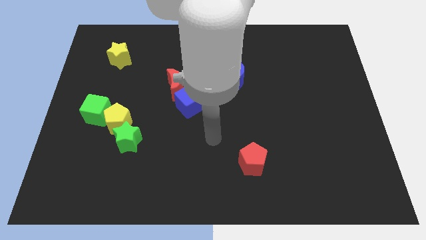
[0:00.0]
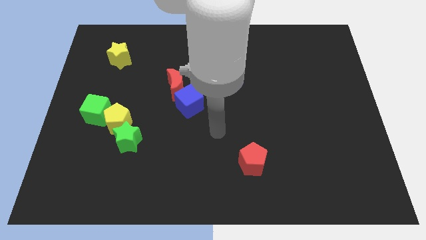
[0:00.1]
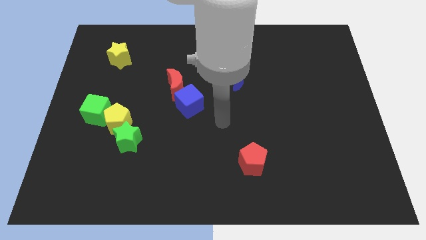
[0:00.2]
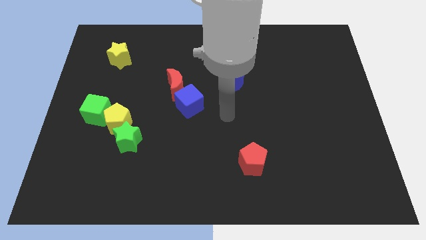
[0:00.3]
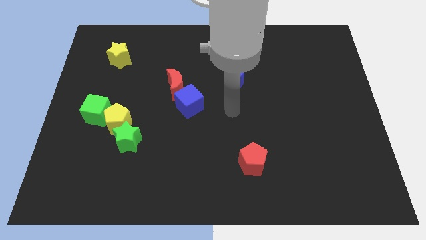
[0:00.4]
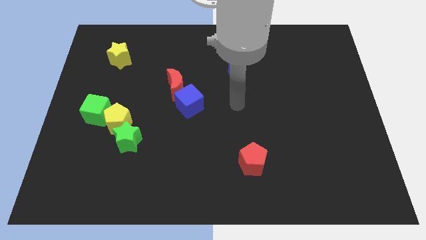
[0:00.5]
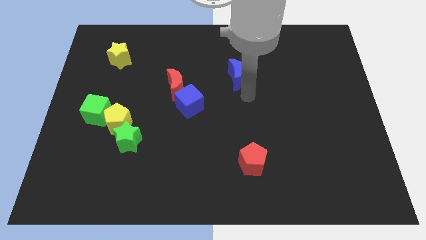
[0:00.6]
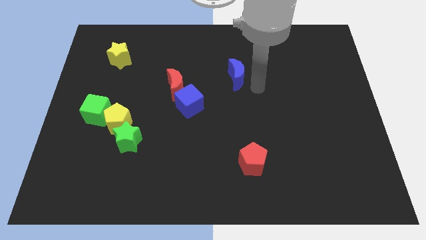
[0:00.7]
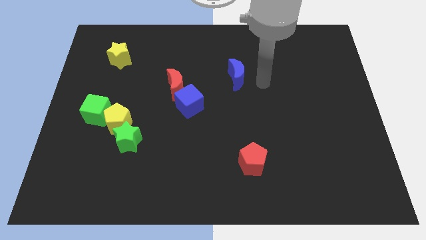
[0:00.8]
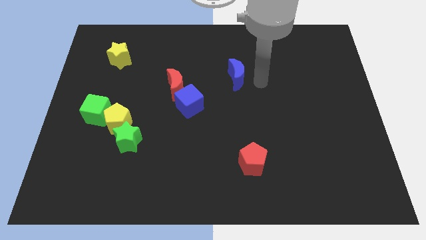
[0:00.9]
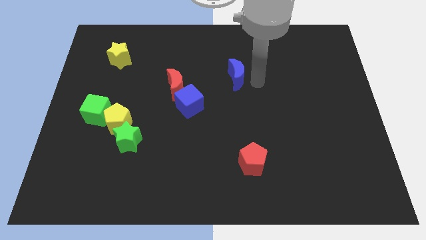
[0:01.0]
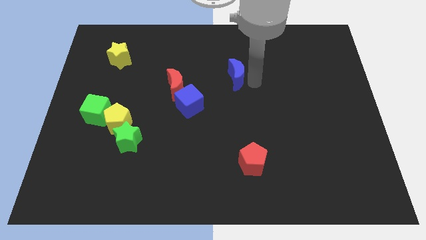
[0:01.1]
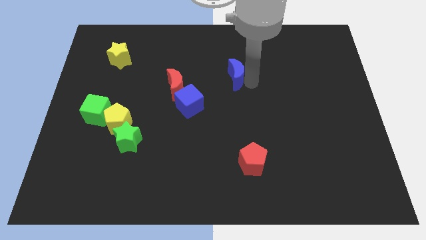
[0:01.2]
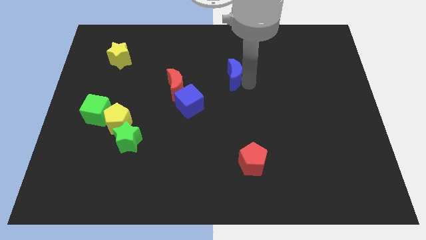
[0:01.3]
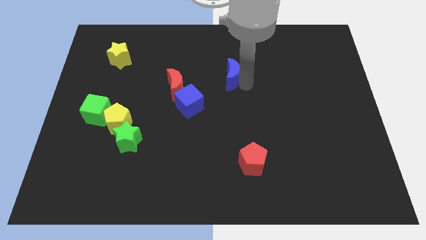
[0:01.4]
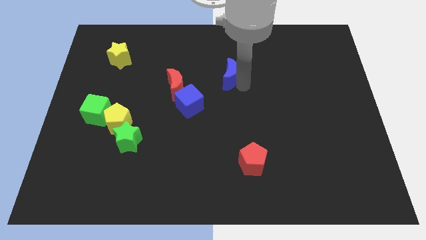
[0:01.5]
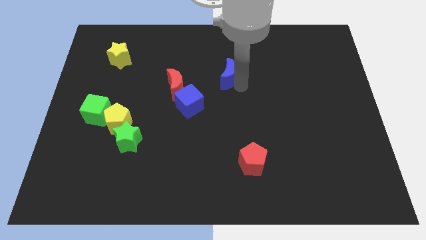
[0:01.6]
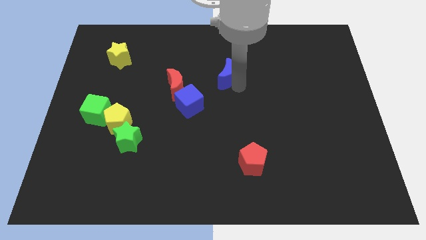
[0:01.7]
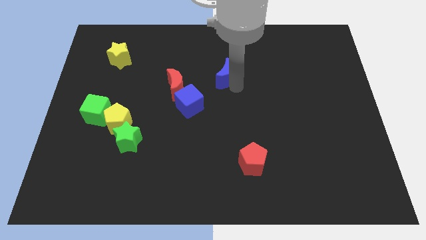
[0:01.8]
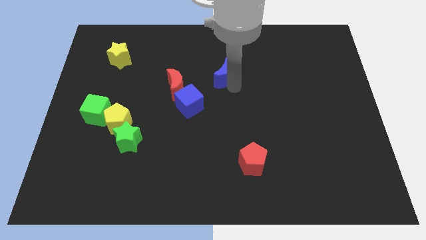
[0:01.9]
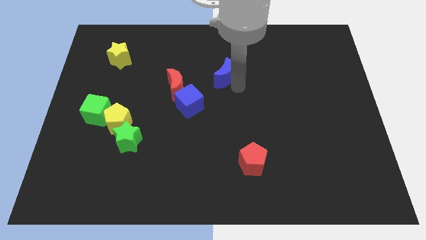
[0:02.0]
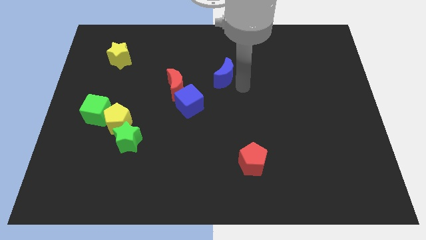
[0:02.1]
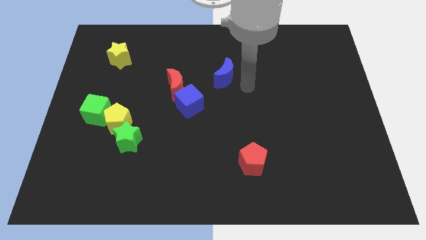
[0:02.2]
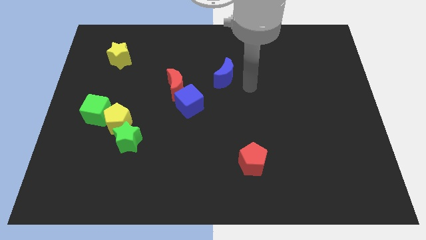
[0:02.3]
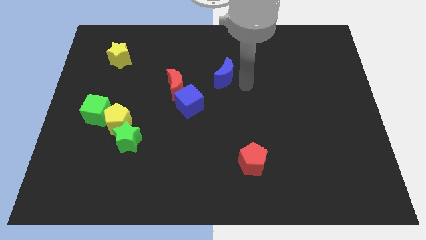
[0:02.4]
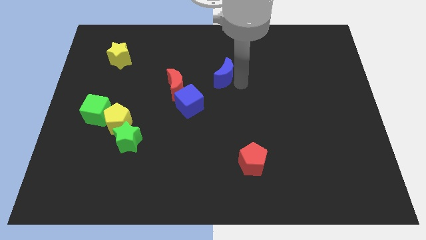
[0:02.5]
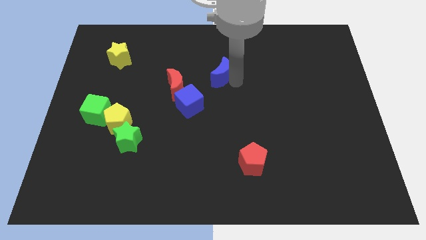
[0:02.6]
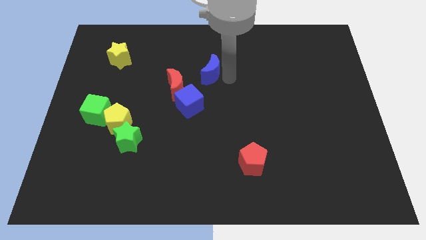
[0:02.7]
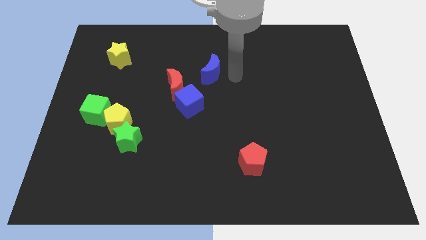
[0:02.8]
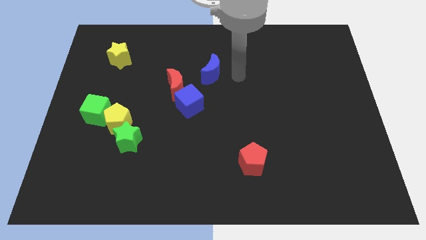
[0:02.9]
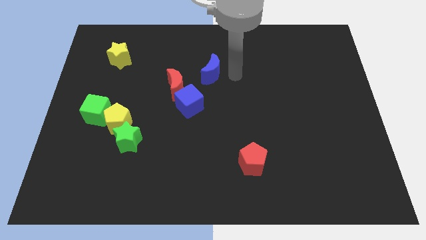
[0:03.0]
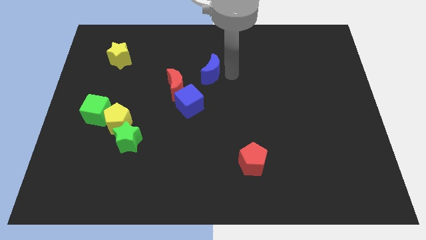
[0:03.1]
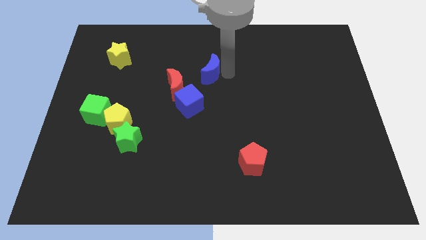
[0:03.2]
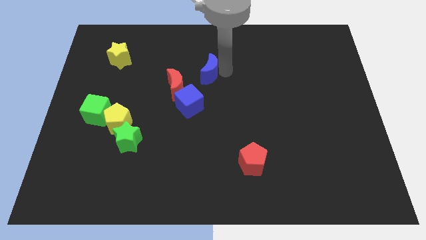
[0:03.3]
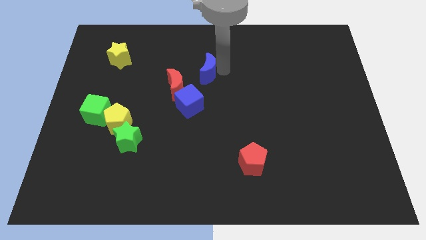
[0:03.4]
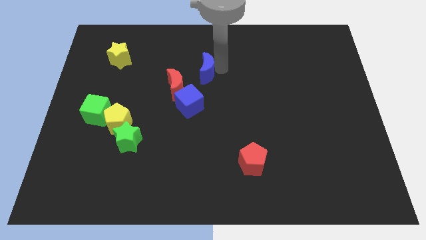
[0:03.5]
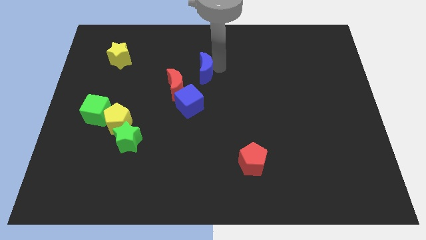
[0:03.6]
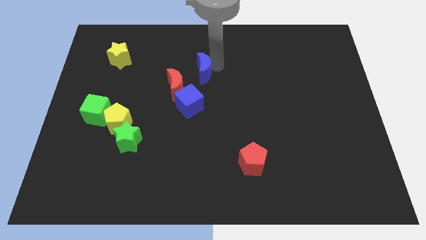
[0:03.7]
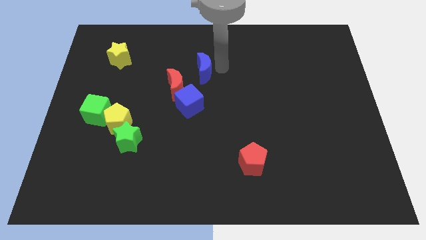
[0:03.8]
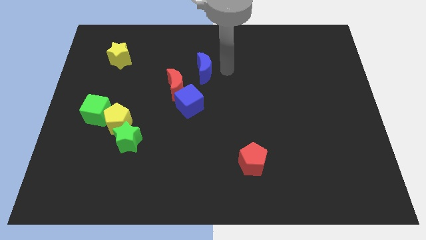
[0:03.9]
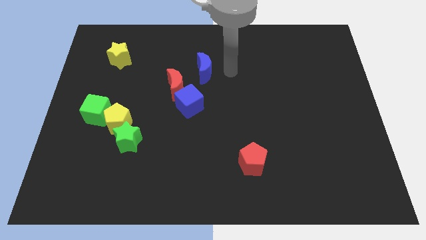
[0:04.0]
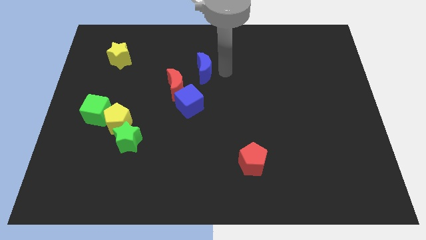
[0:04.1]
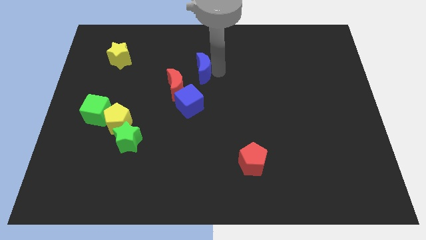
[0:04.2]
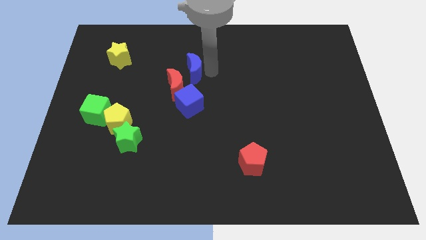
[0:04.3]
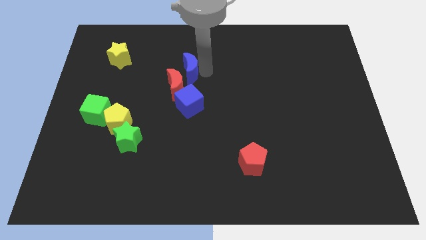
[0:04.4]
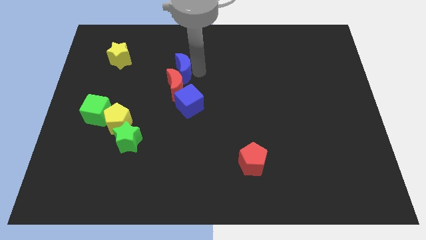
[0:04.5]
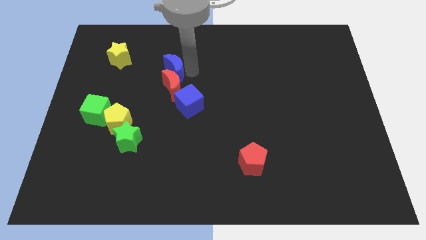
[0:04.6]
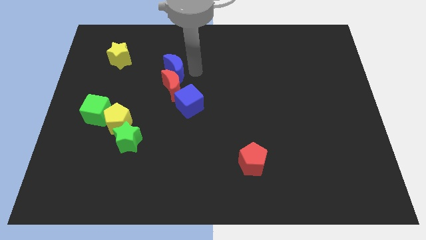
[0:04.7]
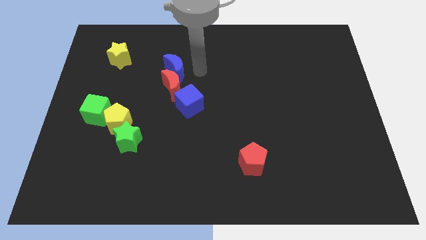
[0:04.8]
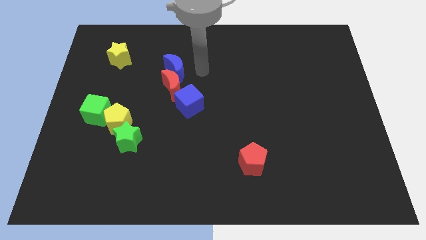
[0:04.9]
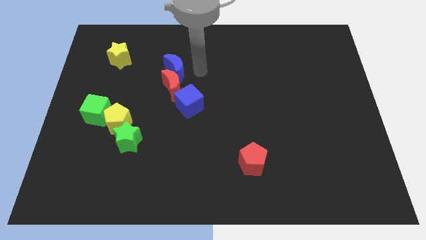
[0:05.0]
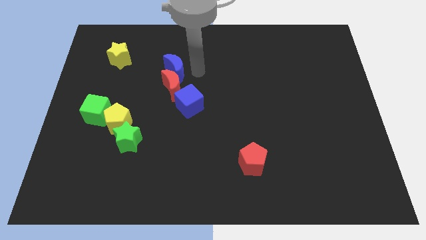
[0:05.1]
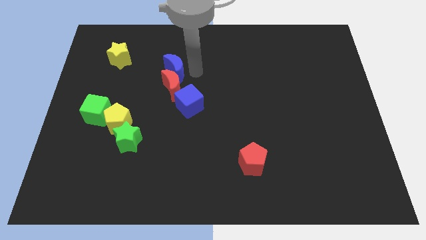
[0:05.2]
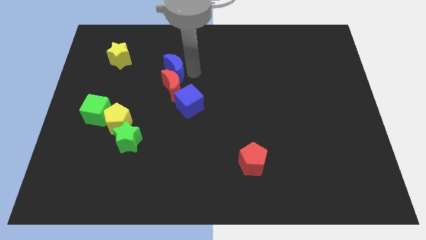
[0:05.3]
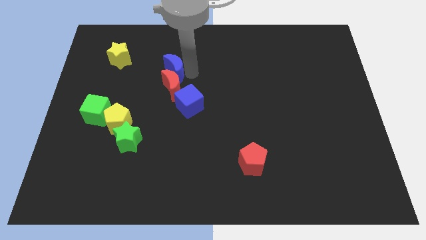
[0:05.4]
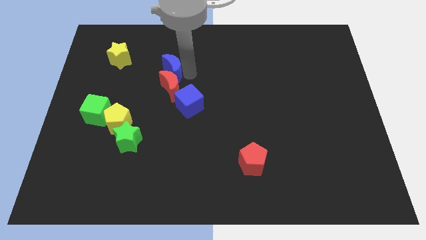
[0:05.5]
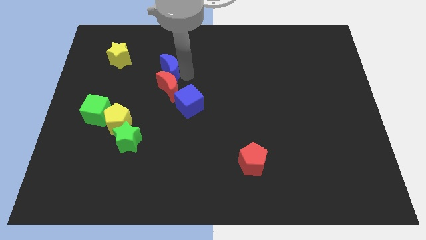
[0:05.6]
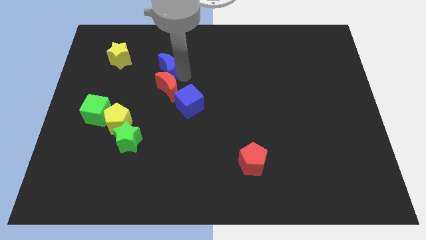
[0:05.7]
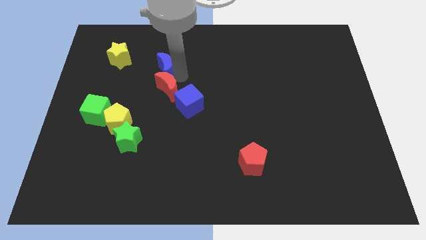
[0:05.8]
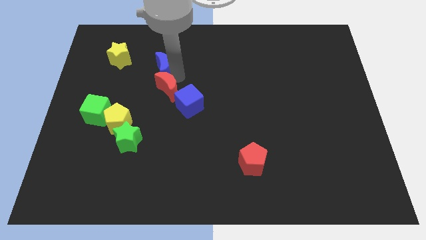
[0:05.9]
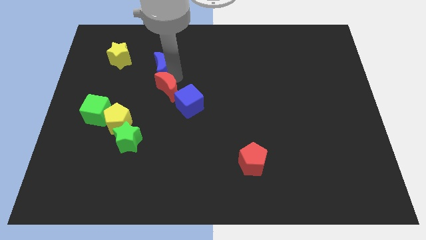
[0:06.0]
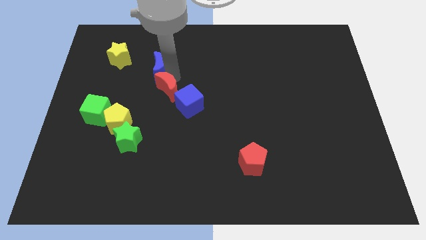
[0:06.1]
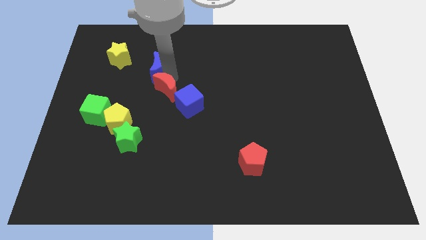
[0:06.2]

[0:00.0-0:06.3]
slide the blue moon to the left

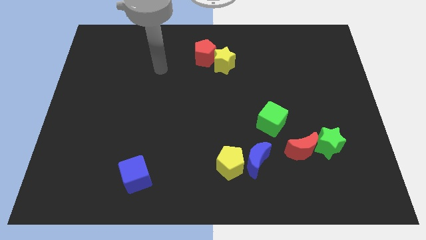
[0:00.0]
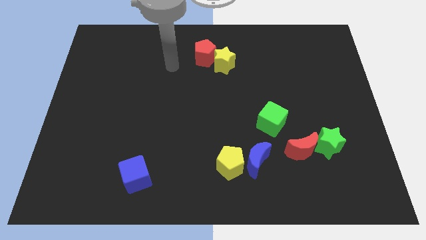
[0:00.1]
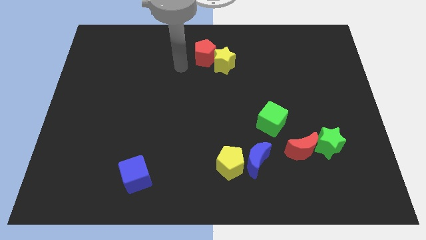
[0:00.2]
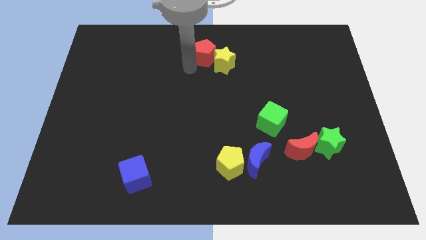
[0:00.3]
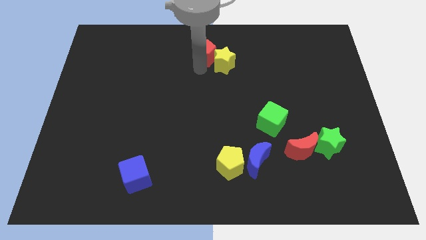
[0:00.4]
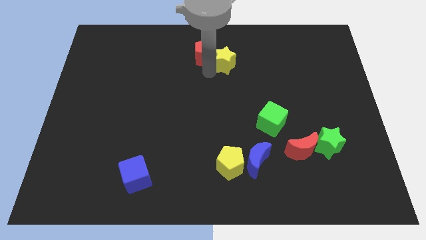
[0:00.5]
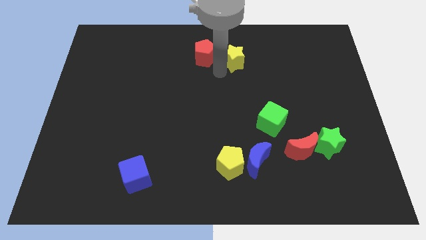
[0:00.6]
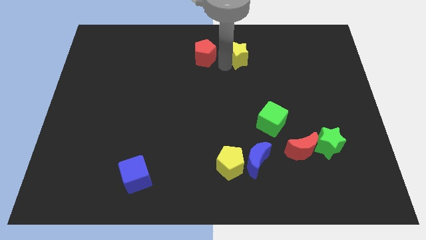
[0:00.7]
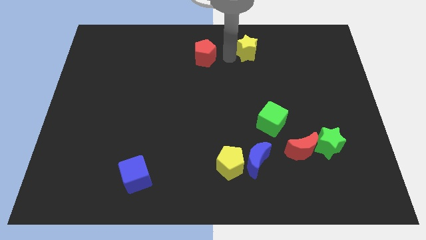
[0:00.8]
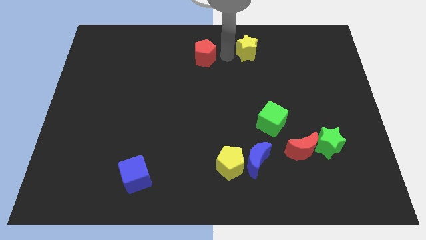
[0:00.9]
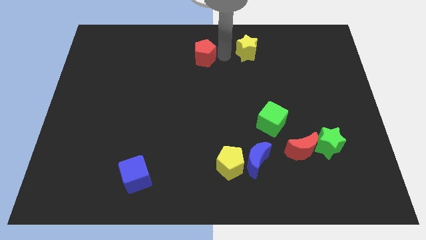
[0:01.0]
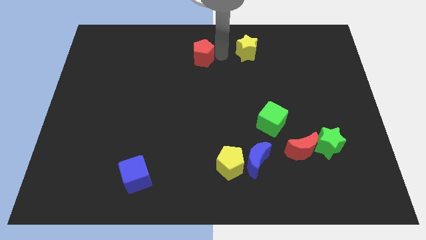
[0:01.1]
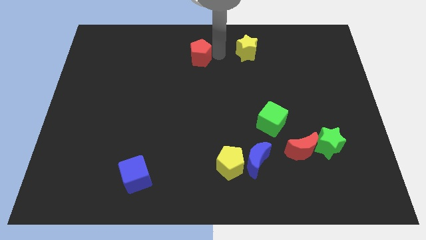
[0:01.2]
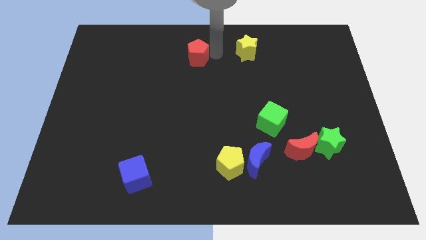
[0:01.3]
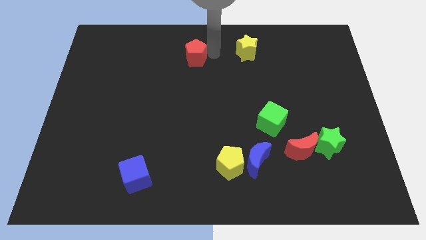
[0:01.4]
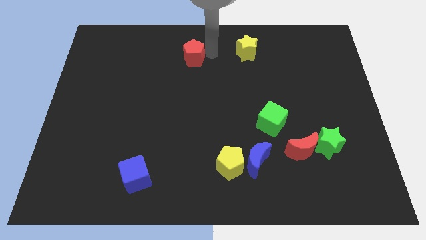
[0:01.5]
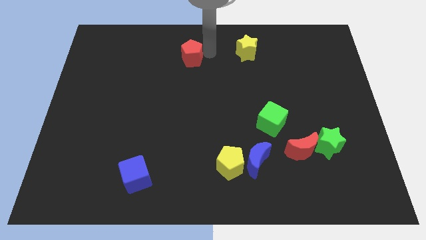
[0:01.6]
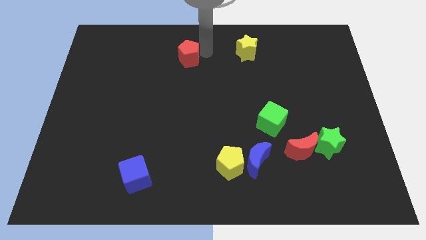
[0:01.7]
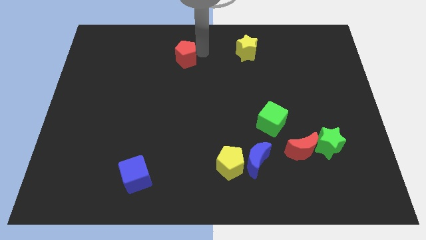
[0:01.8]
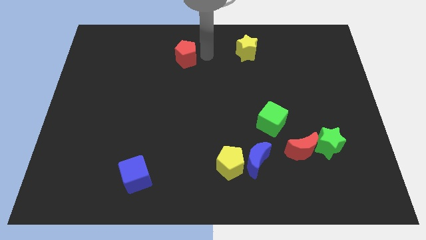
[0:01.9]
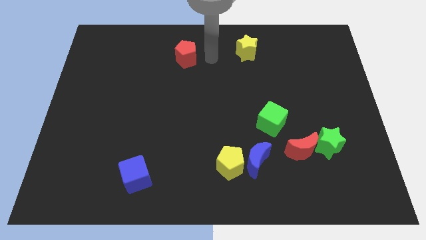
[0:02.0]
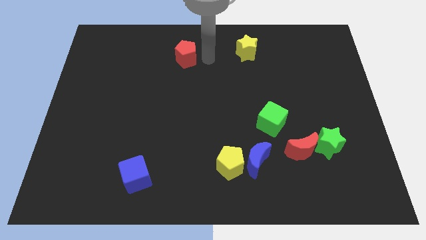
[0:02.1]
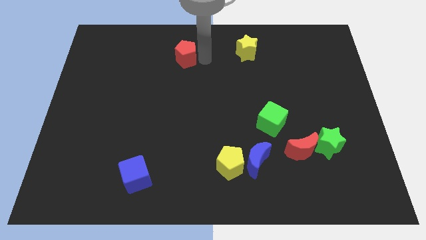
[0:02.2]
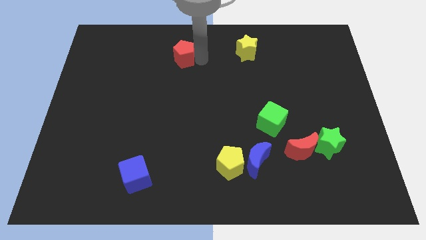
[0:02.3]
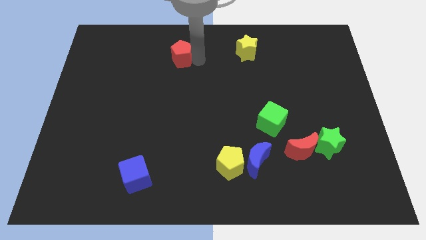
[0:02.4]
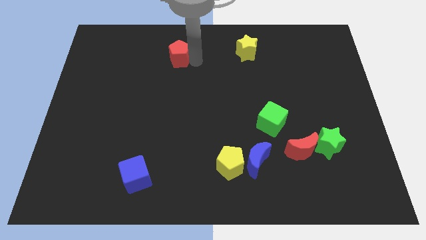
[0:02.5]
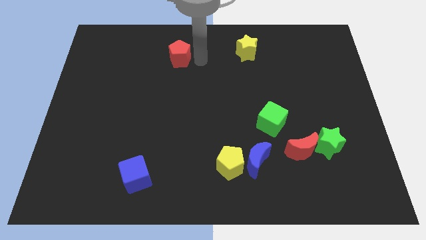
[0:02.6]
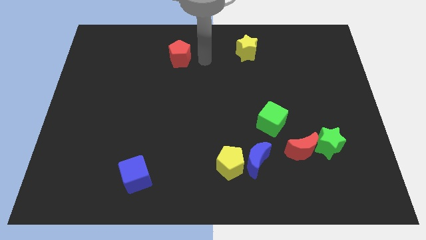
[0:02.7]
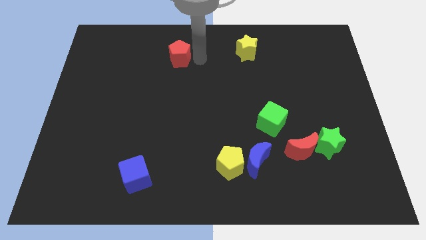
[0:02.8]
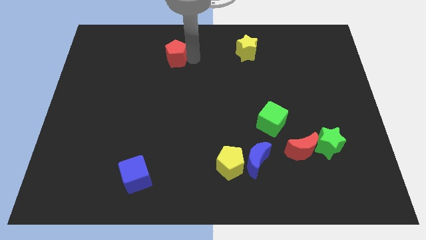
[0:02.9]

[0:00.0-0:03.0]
slide the red pentagon a little left
